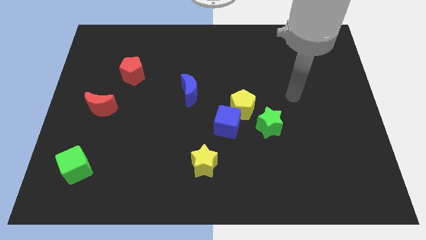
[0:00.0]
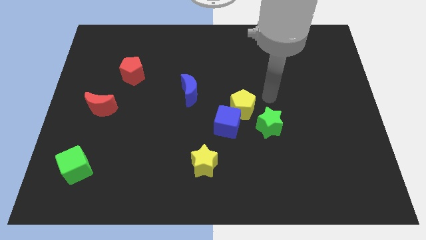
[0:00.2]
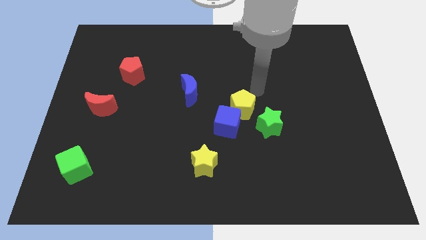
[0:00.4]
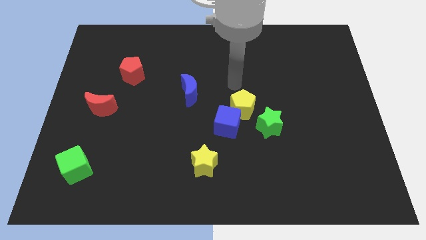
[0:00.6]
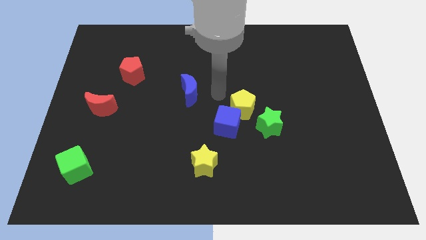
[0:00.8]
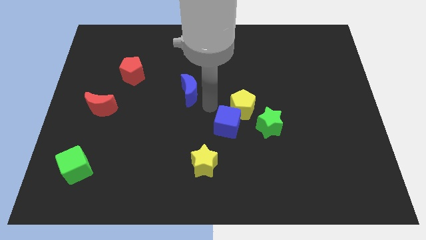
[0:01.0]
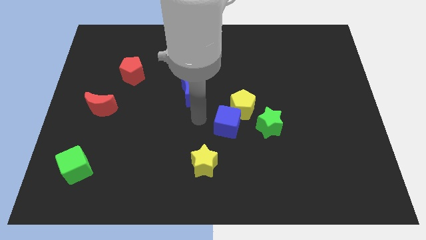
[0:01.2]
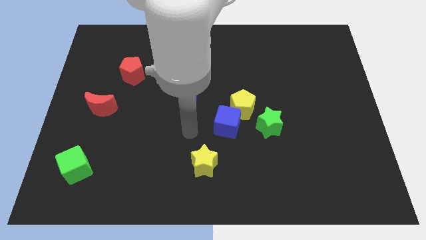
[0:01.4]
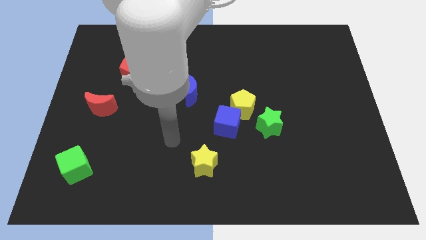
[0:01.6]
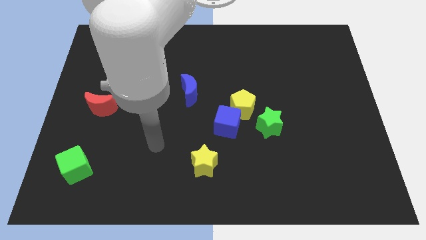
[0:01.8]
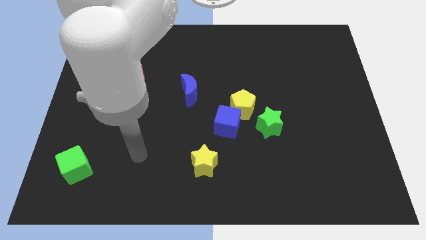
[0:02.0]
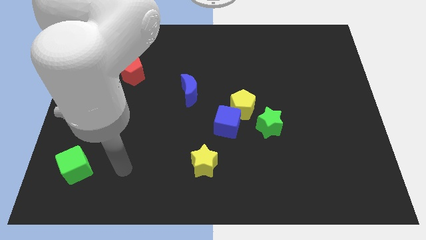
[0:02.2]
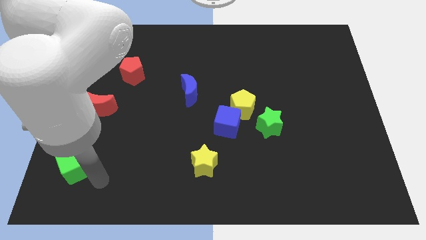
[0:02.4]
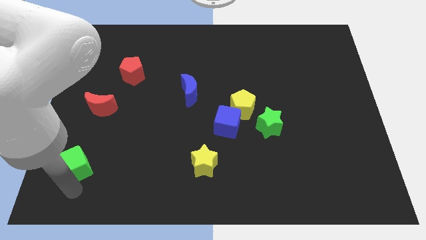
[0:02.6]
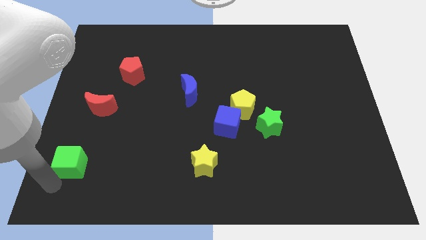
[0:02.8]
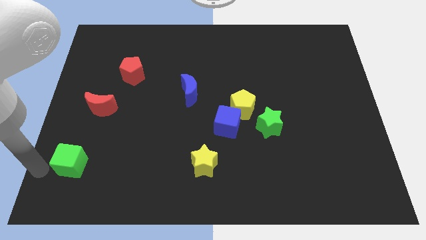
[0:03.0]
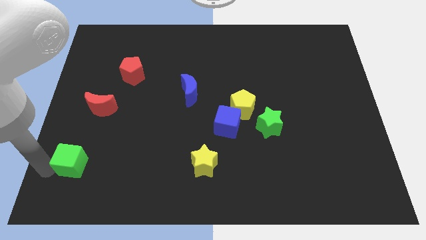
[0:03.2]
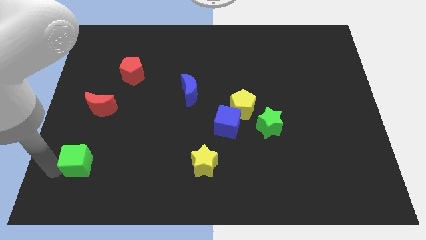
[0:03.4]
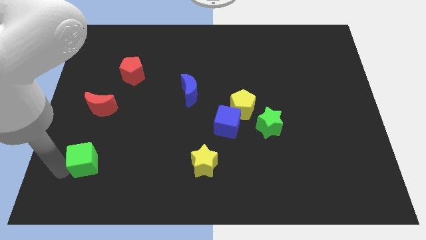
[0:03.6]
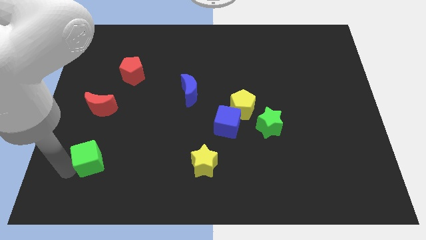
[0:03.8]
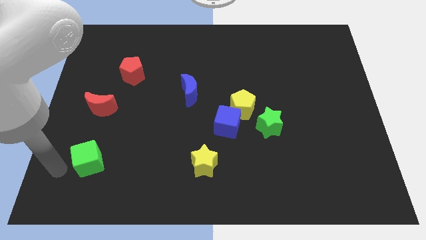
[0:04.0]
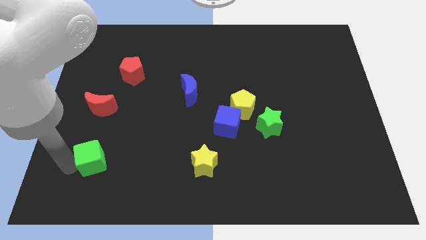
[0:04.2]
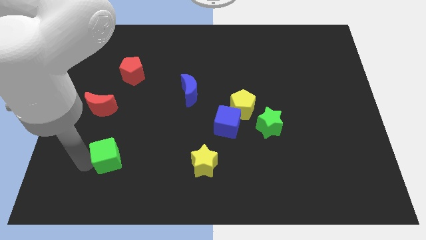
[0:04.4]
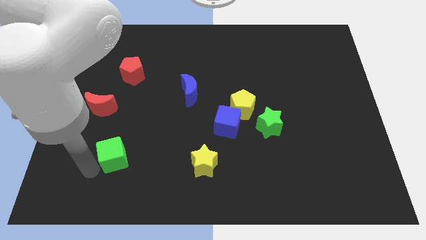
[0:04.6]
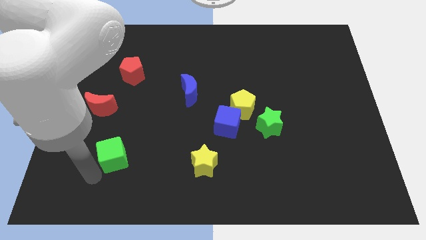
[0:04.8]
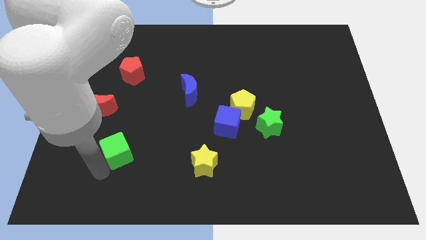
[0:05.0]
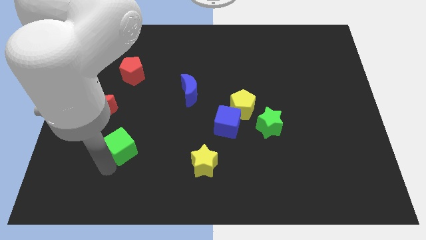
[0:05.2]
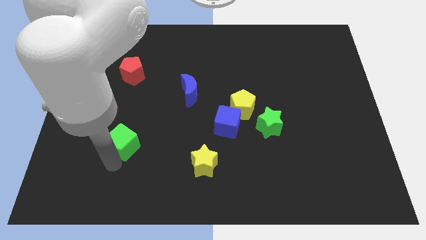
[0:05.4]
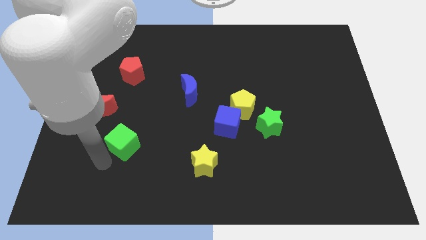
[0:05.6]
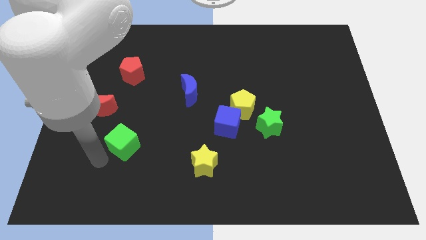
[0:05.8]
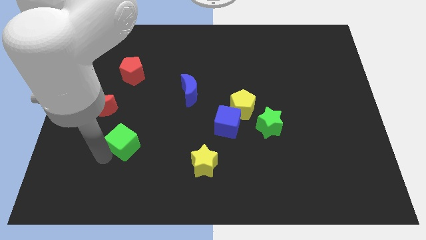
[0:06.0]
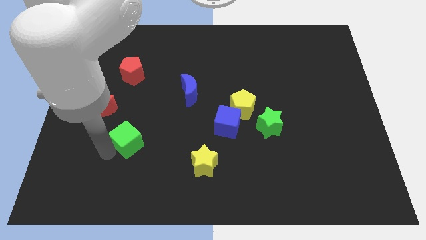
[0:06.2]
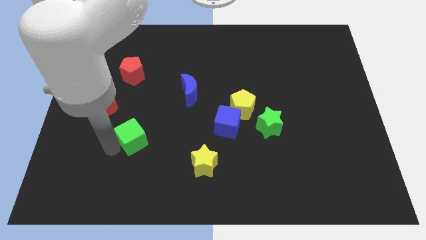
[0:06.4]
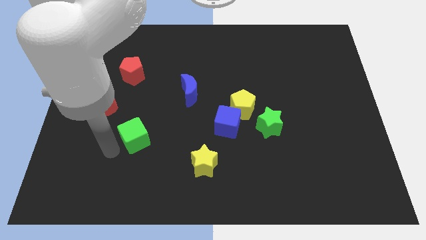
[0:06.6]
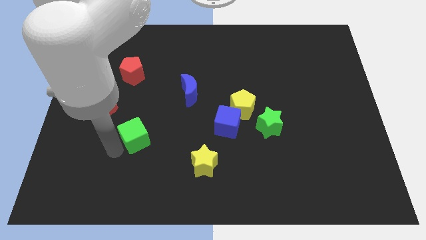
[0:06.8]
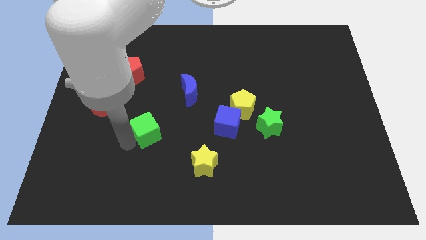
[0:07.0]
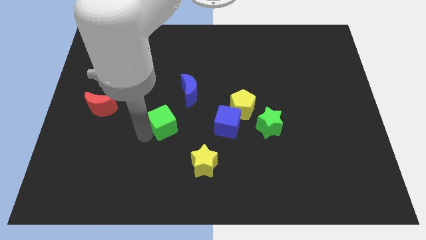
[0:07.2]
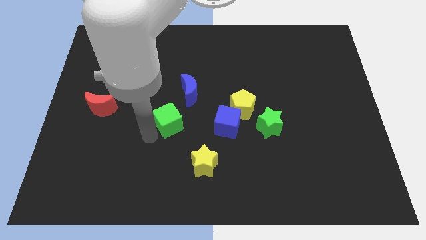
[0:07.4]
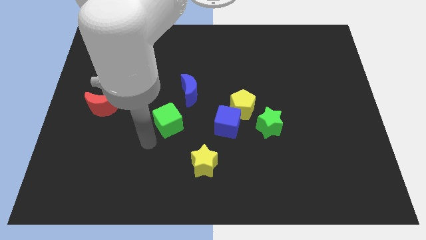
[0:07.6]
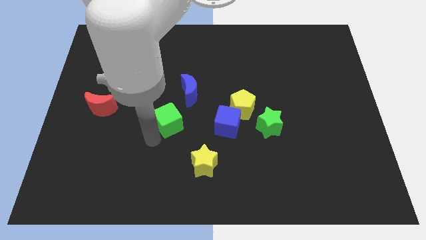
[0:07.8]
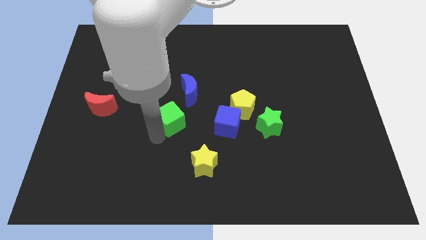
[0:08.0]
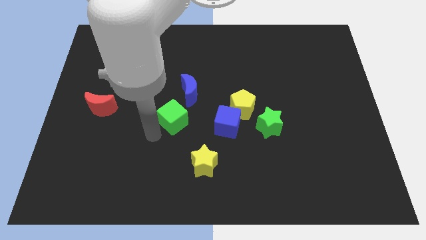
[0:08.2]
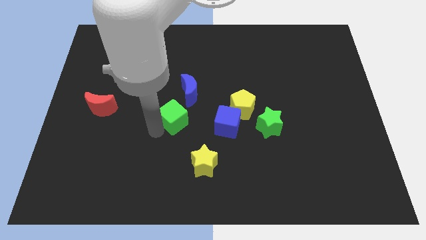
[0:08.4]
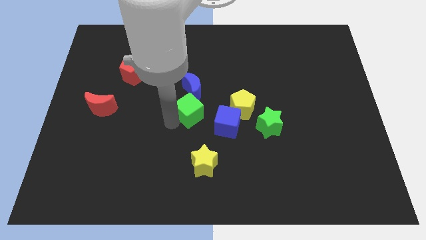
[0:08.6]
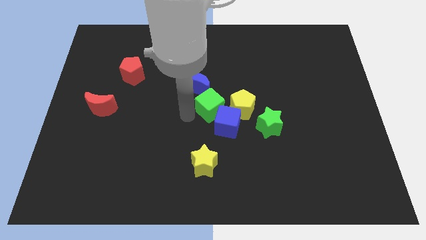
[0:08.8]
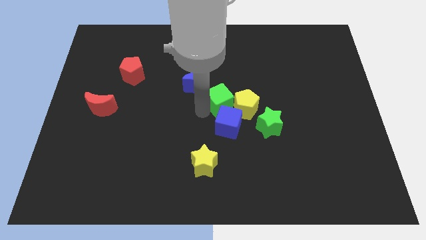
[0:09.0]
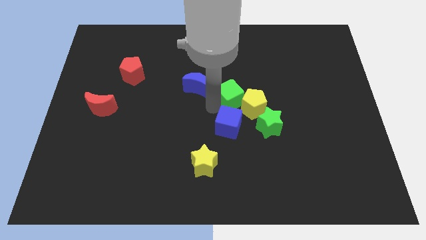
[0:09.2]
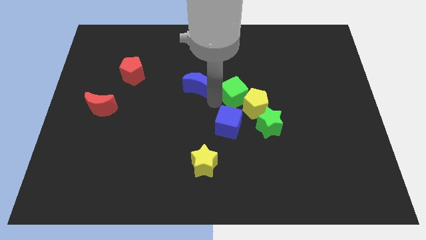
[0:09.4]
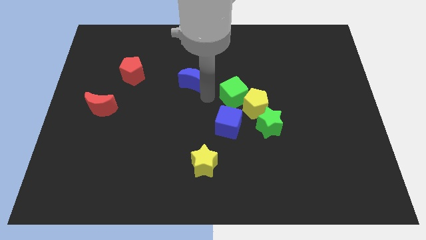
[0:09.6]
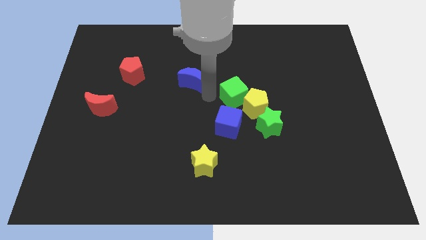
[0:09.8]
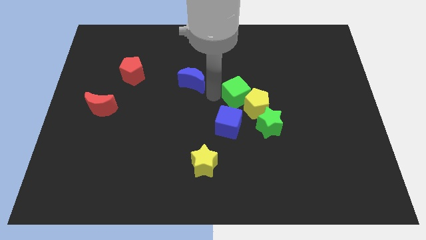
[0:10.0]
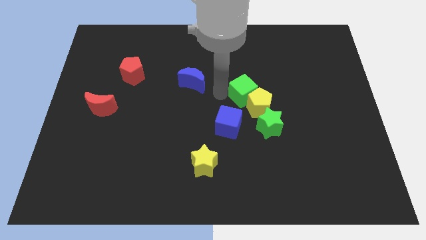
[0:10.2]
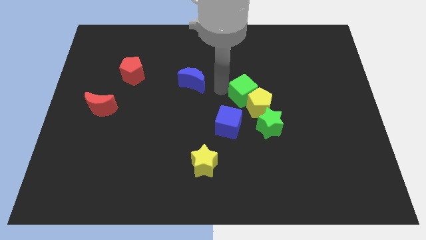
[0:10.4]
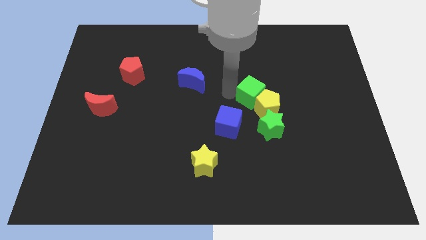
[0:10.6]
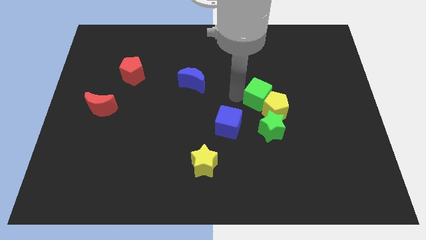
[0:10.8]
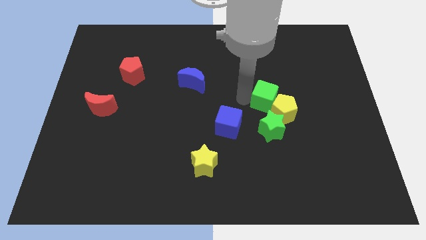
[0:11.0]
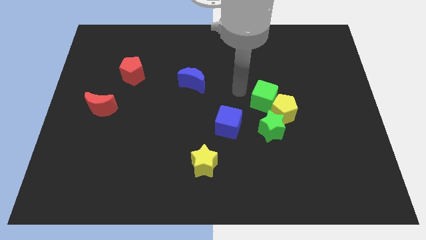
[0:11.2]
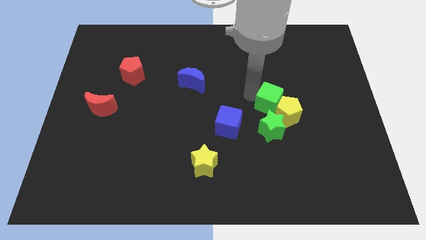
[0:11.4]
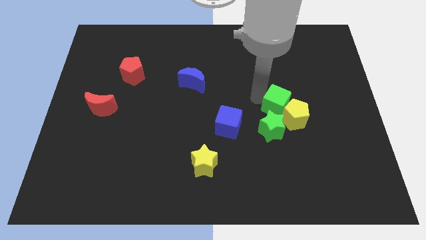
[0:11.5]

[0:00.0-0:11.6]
move the green cube diagonally up and to the right of the green star

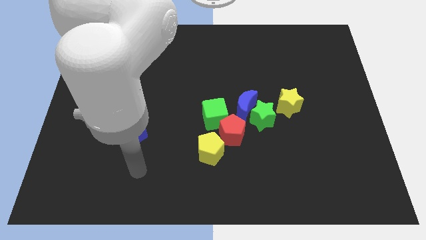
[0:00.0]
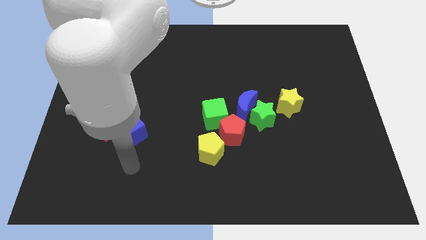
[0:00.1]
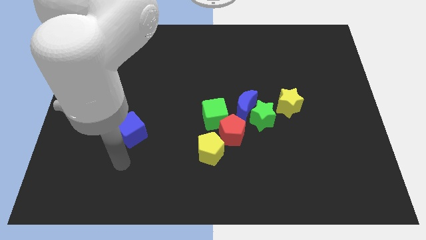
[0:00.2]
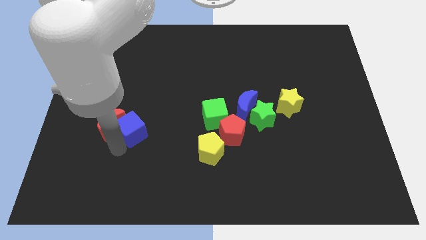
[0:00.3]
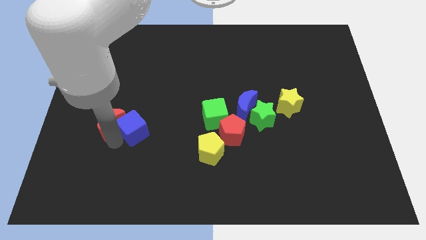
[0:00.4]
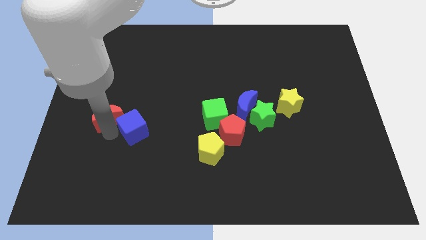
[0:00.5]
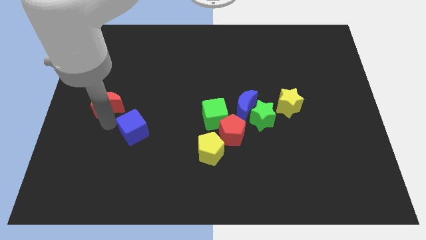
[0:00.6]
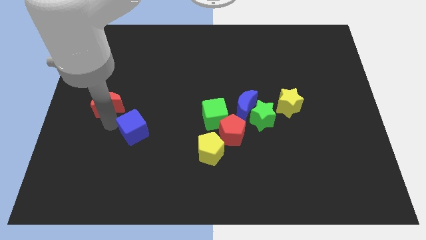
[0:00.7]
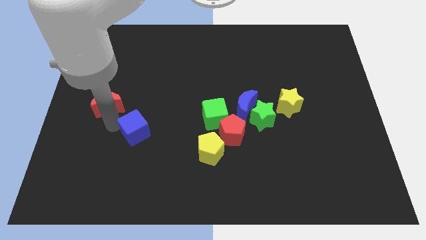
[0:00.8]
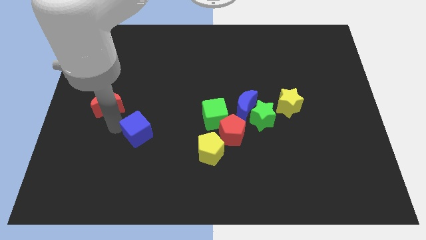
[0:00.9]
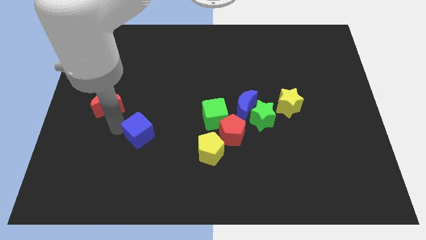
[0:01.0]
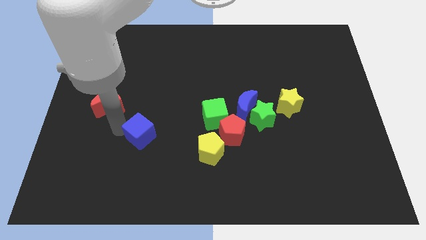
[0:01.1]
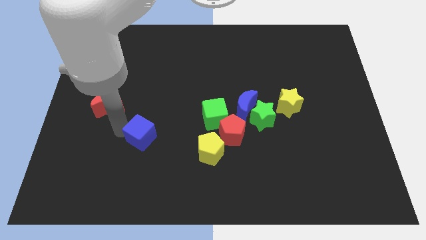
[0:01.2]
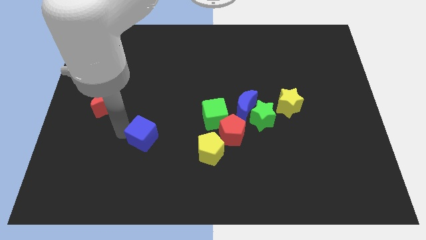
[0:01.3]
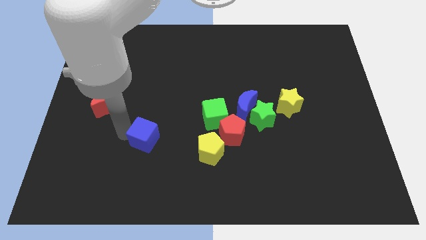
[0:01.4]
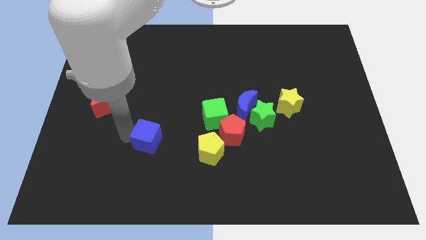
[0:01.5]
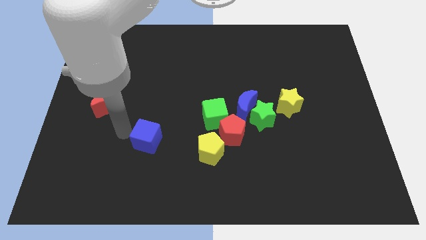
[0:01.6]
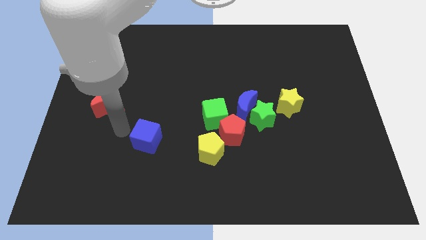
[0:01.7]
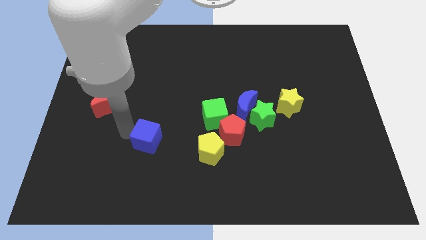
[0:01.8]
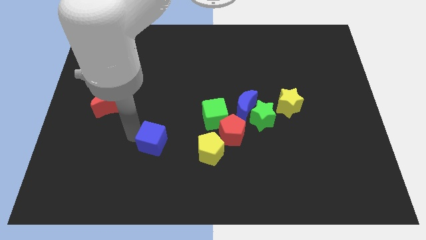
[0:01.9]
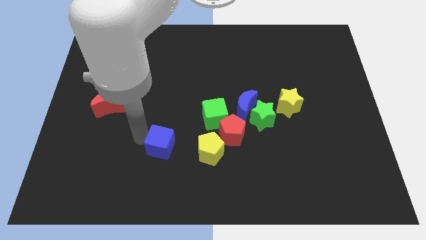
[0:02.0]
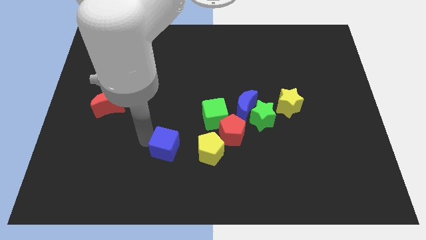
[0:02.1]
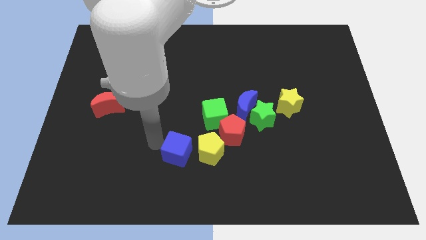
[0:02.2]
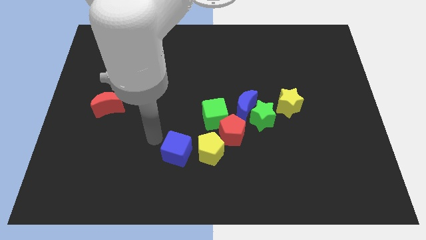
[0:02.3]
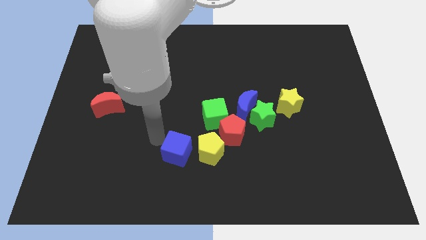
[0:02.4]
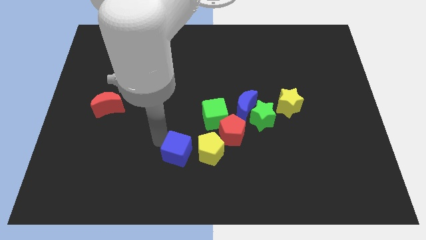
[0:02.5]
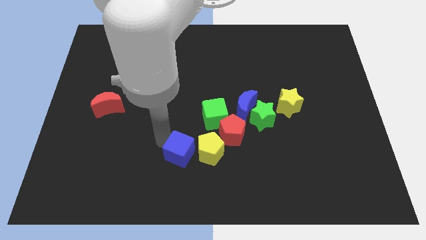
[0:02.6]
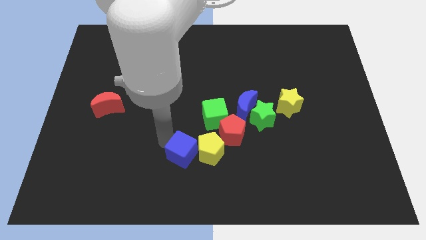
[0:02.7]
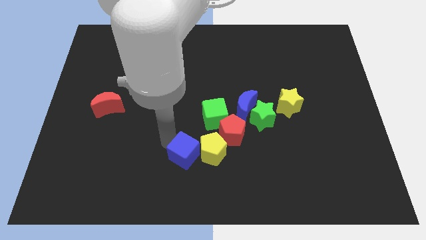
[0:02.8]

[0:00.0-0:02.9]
push the blue cube to the bottom left of the red pentagon

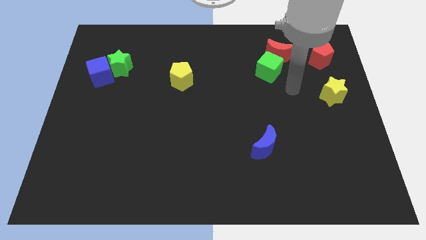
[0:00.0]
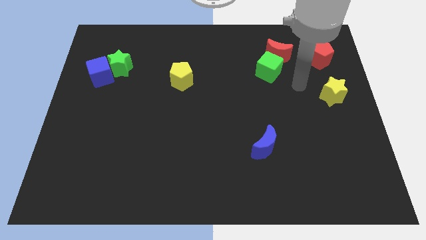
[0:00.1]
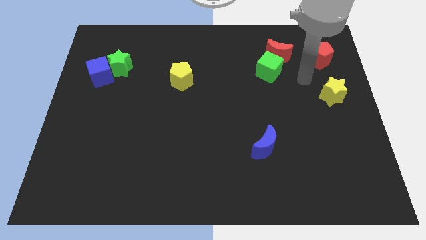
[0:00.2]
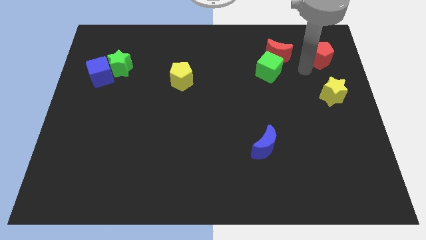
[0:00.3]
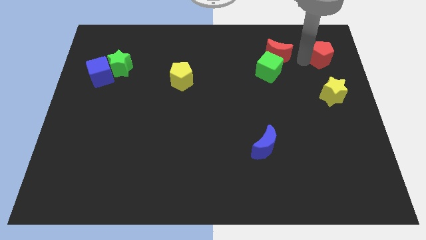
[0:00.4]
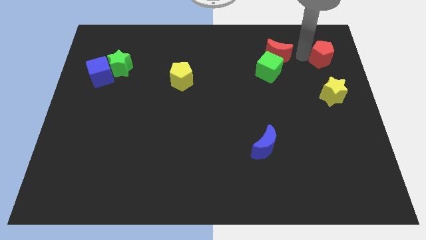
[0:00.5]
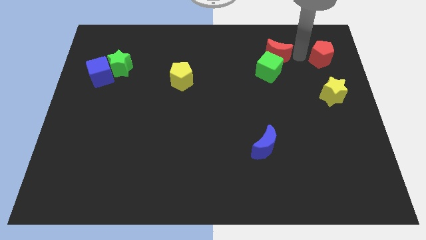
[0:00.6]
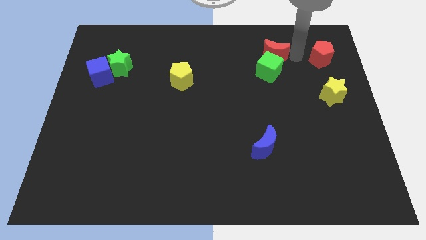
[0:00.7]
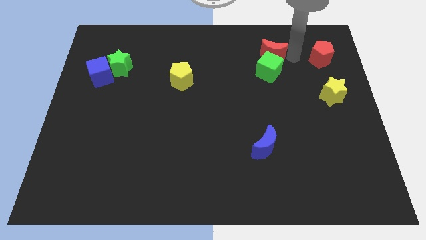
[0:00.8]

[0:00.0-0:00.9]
push the red moon to the top left side of the green cube
